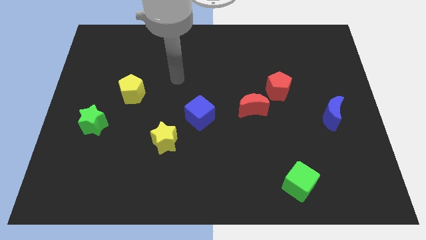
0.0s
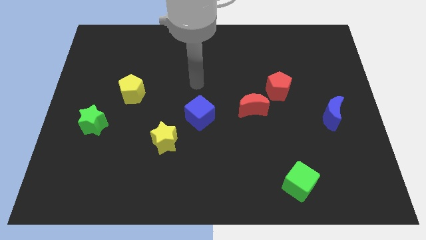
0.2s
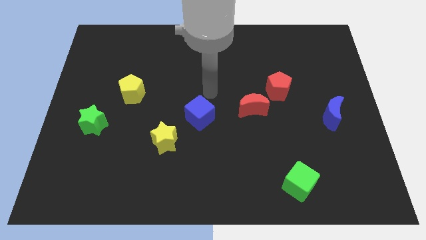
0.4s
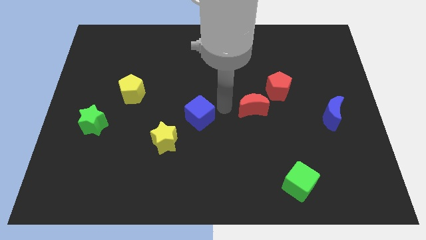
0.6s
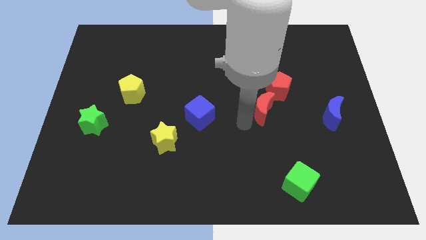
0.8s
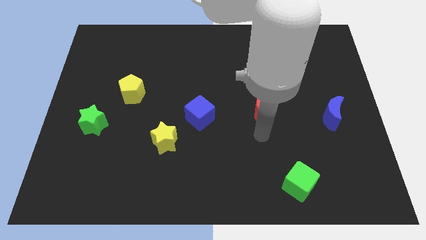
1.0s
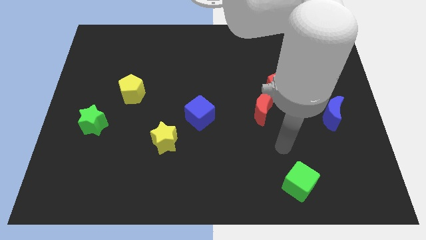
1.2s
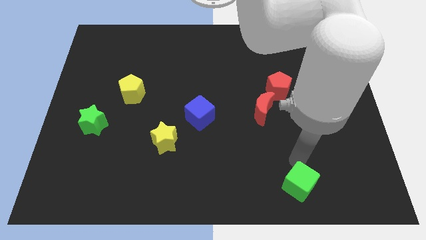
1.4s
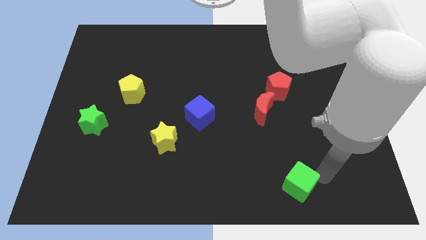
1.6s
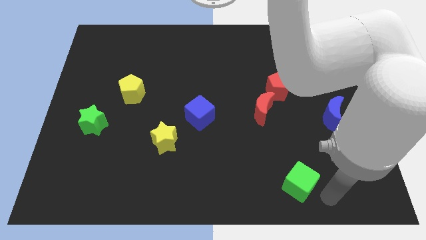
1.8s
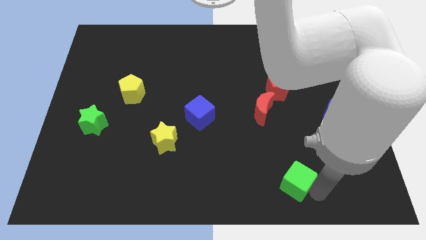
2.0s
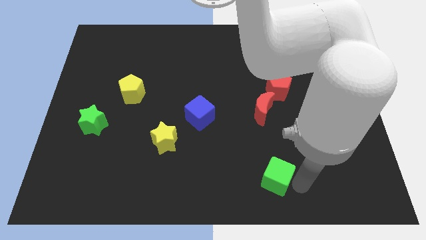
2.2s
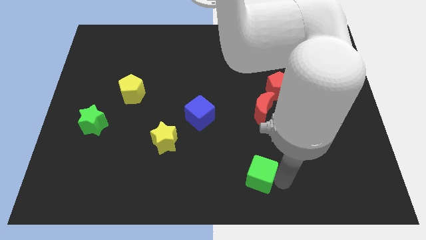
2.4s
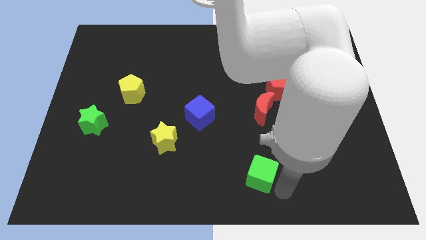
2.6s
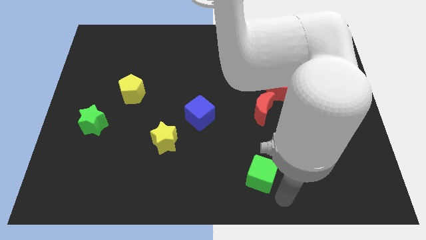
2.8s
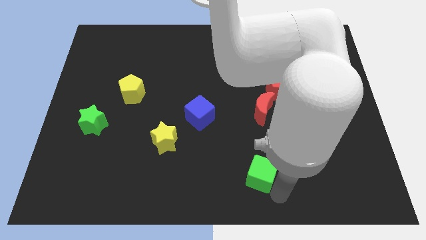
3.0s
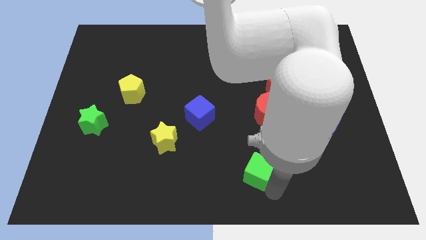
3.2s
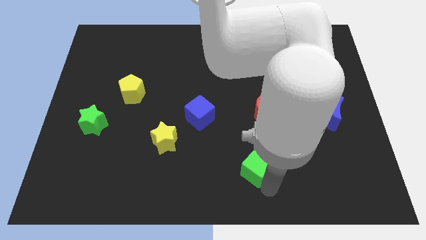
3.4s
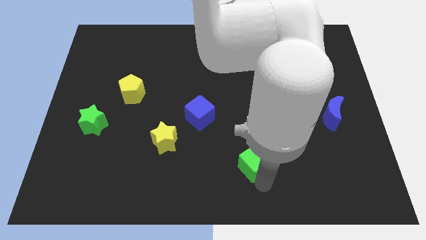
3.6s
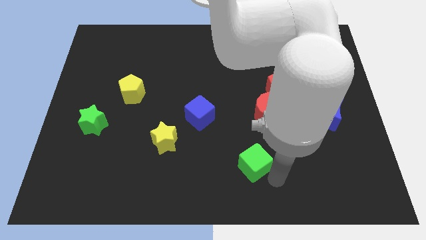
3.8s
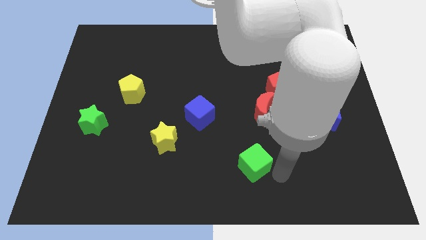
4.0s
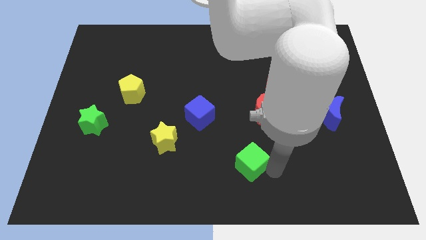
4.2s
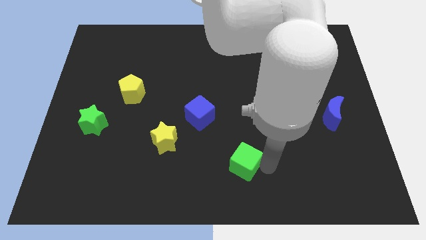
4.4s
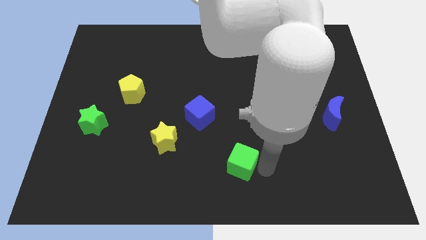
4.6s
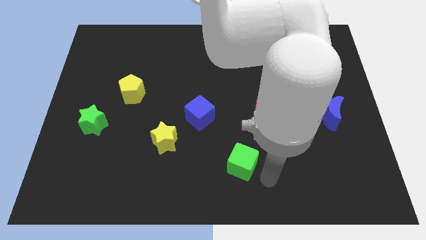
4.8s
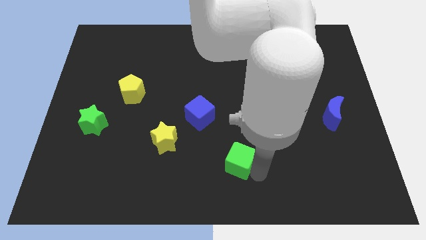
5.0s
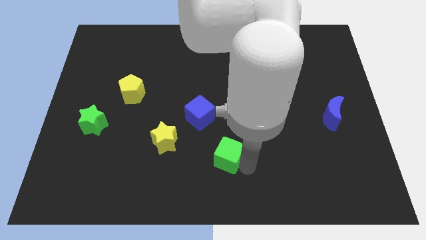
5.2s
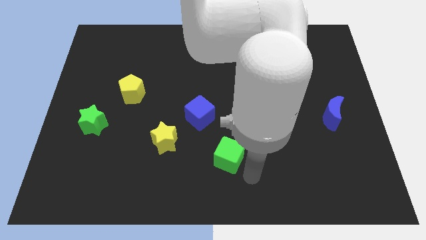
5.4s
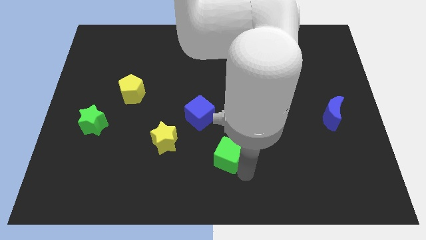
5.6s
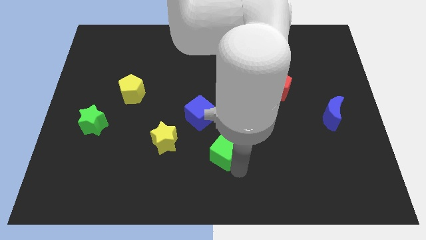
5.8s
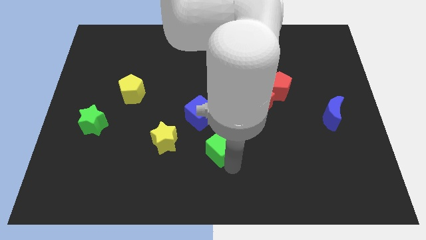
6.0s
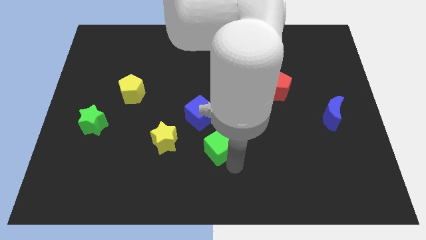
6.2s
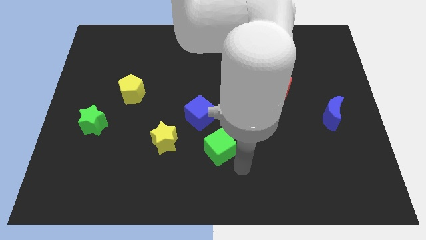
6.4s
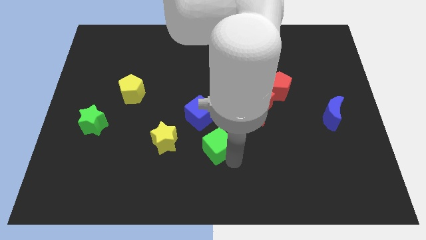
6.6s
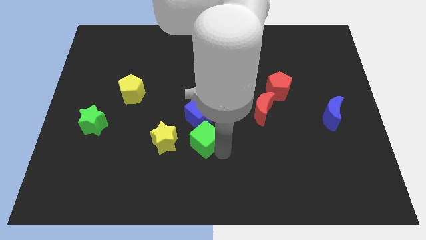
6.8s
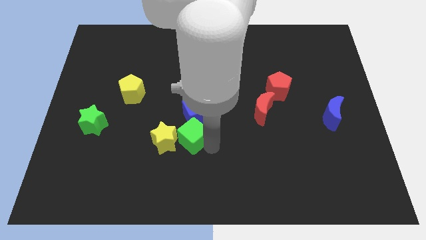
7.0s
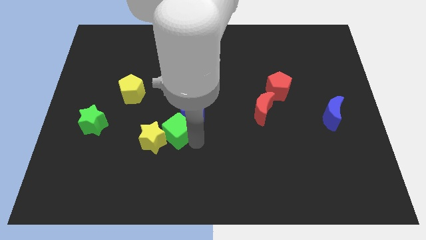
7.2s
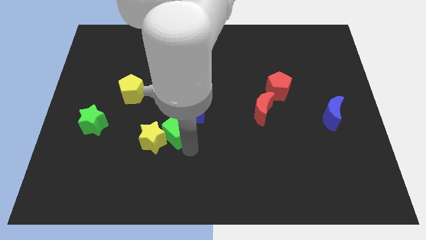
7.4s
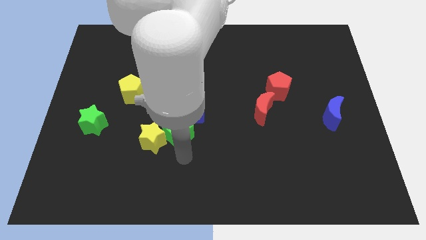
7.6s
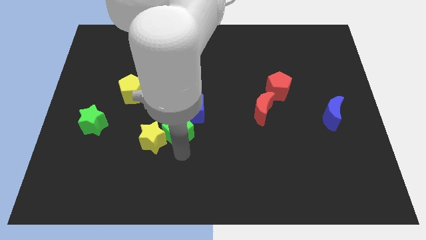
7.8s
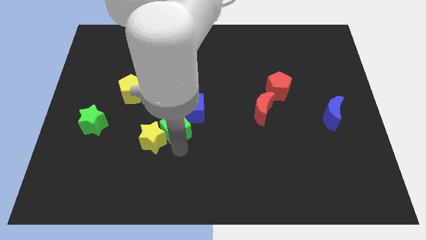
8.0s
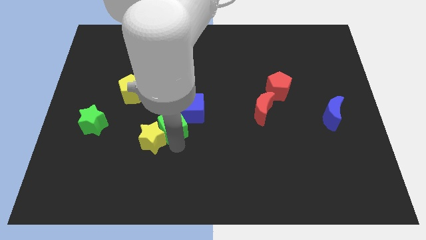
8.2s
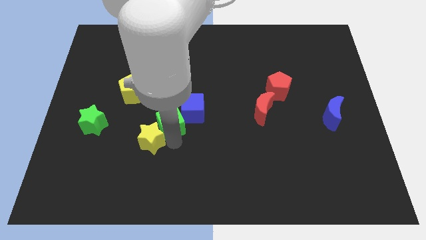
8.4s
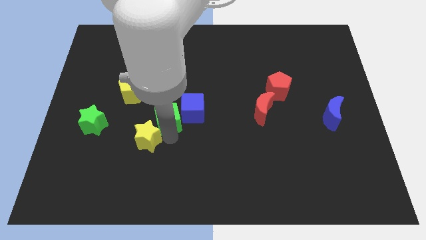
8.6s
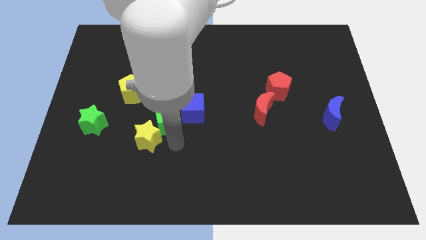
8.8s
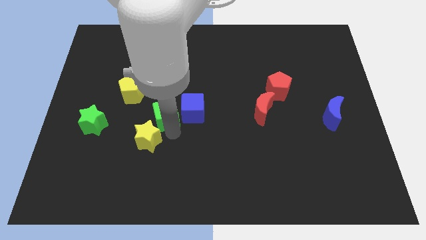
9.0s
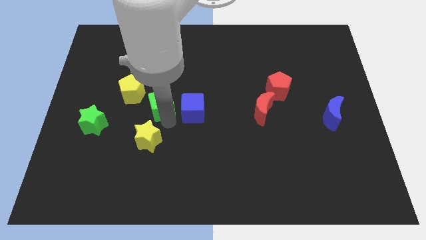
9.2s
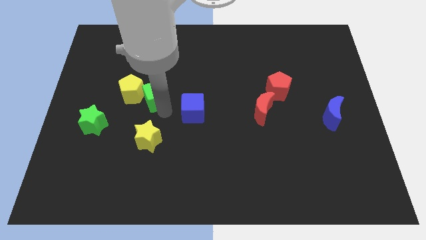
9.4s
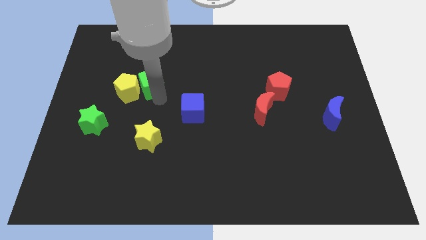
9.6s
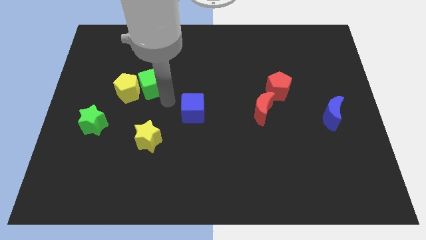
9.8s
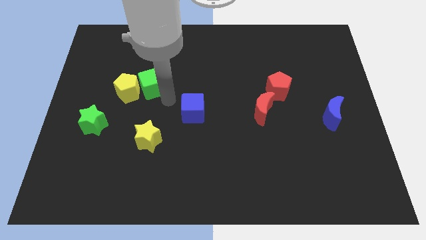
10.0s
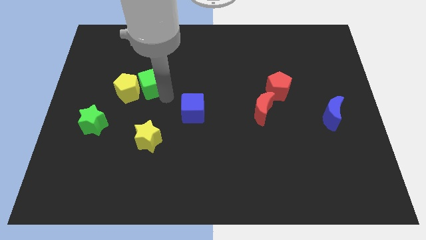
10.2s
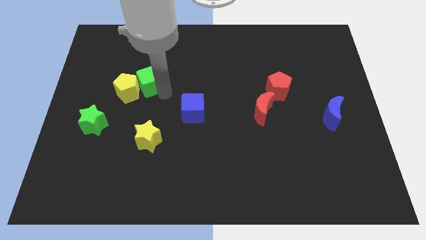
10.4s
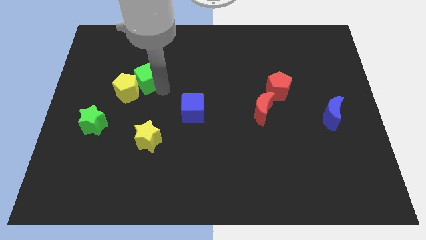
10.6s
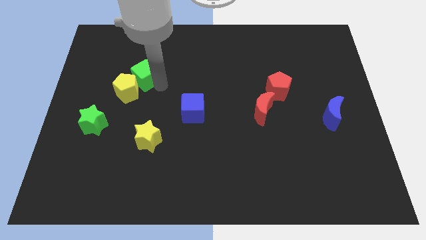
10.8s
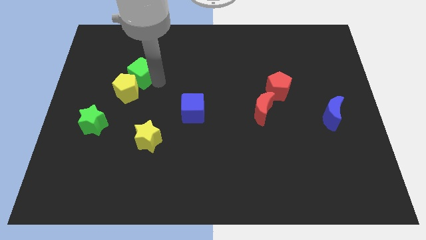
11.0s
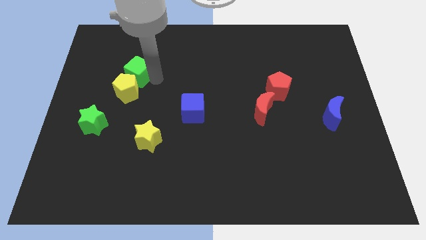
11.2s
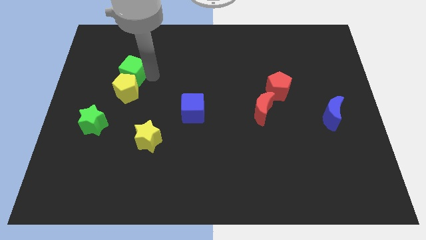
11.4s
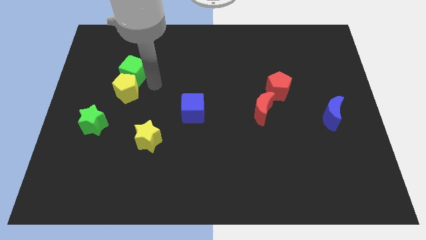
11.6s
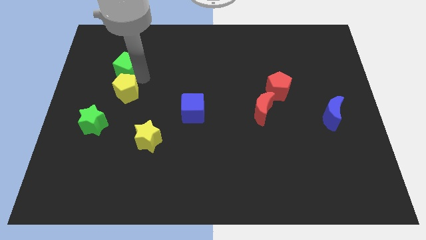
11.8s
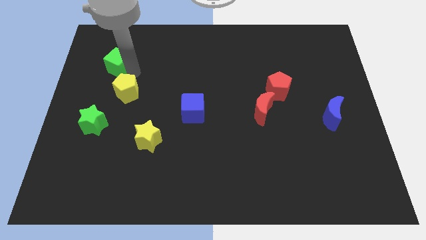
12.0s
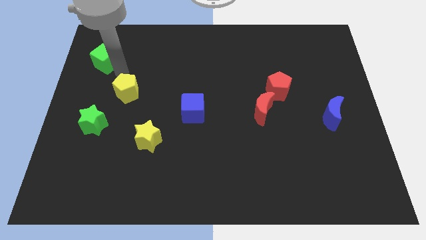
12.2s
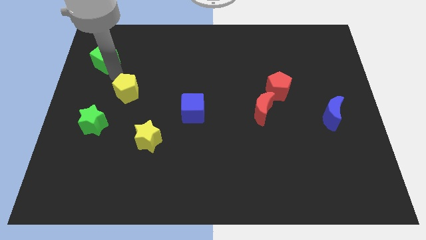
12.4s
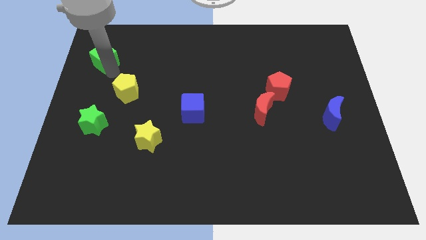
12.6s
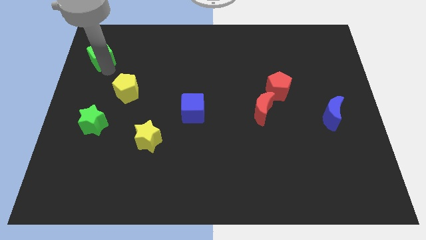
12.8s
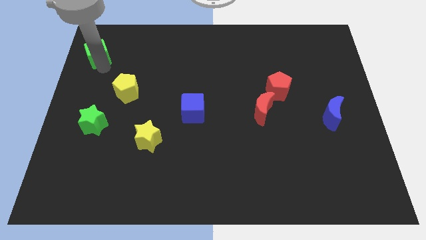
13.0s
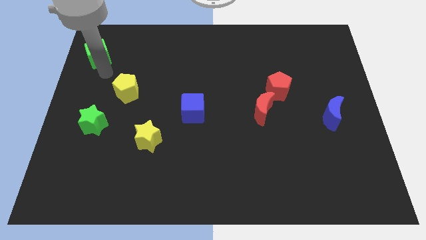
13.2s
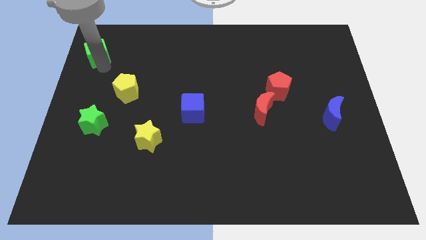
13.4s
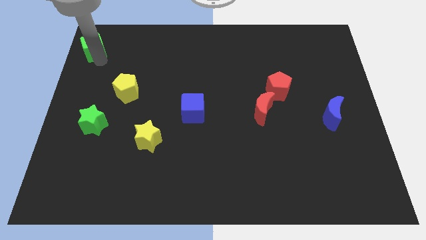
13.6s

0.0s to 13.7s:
slide the green cube to the top left corner

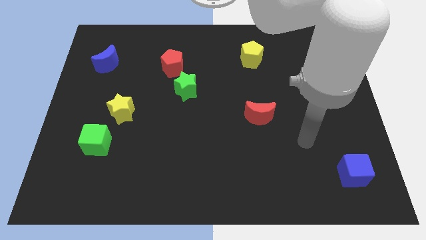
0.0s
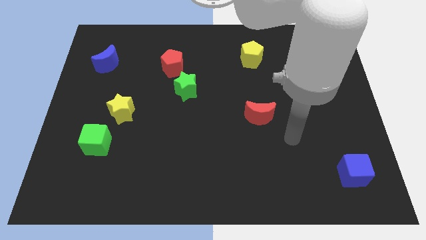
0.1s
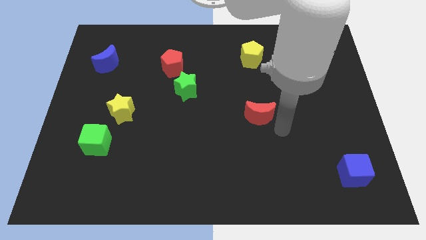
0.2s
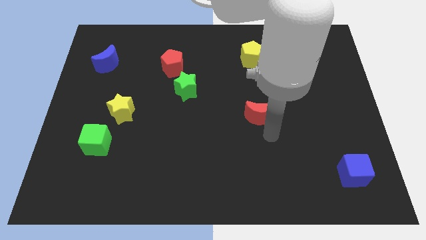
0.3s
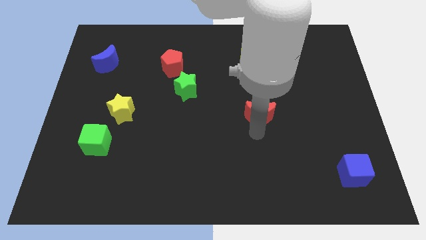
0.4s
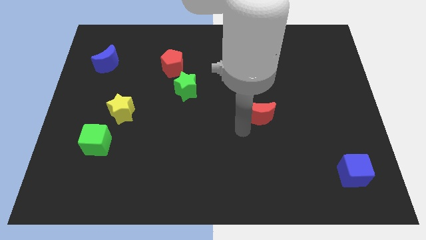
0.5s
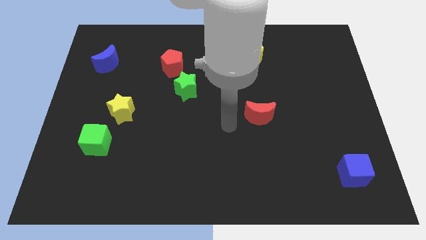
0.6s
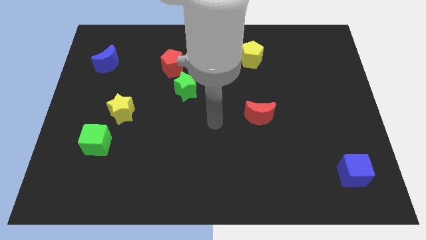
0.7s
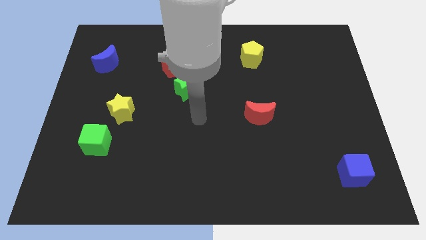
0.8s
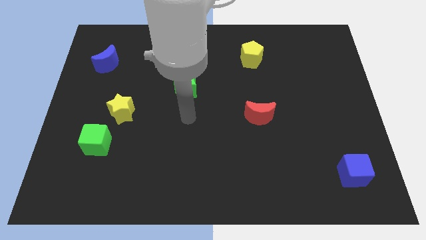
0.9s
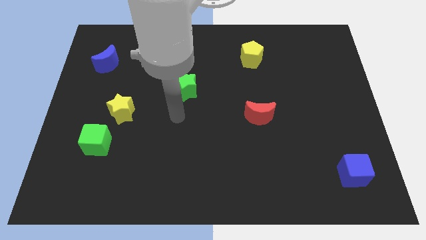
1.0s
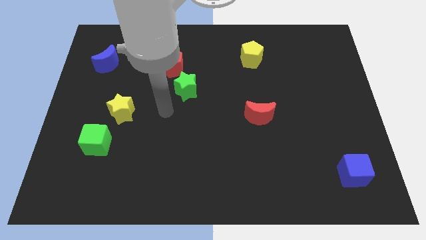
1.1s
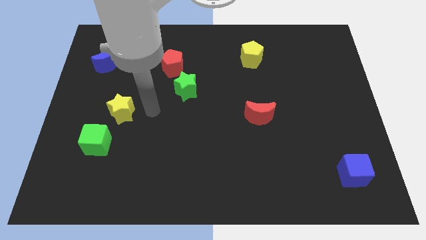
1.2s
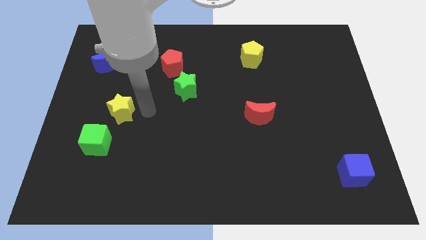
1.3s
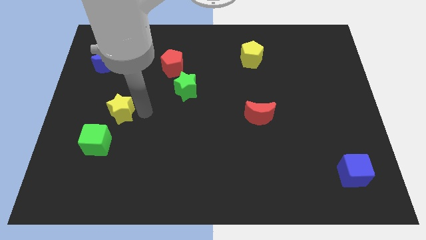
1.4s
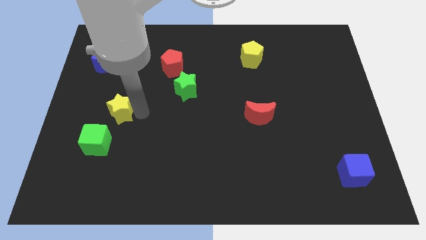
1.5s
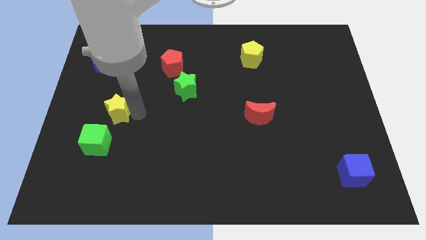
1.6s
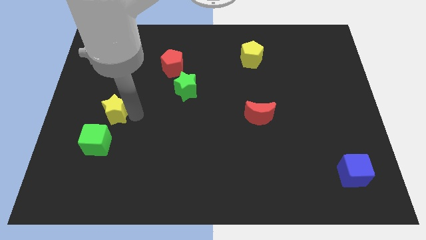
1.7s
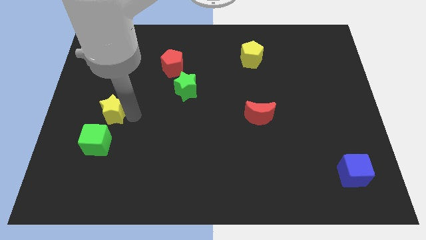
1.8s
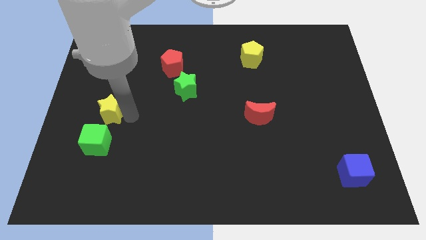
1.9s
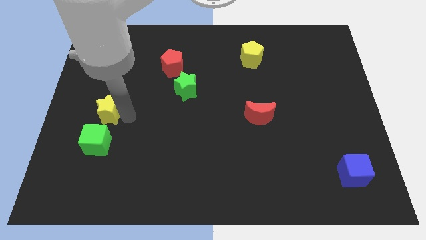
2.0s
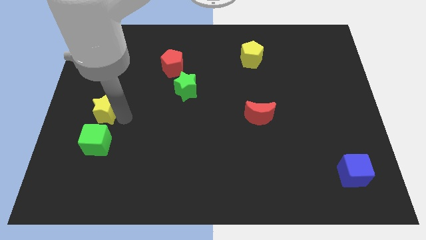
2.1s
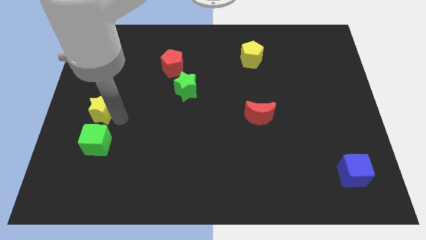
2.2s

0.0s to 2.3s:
move the yellow star to the left side
